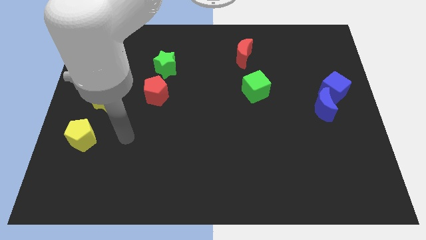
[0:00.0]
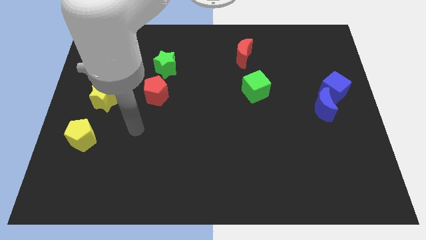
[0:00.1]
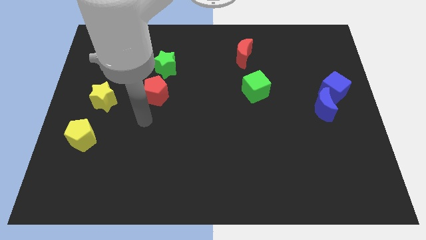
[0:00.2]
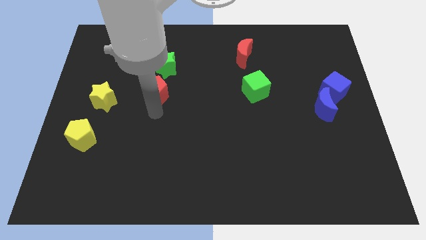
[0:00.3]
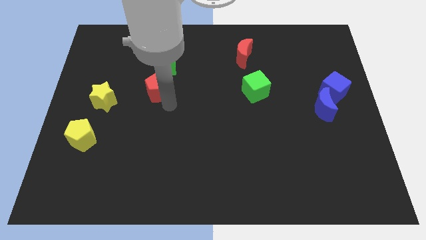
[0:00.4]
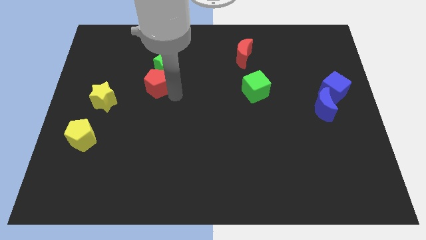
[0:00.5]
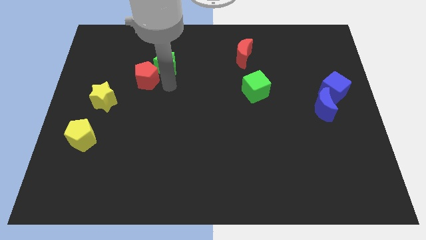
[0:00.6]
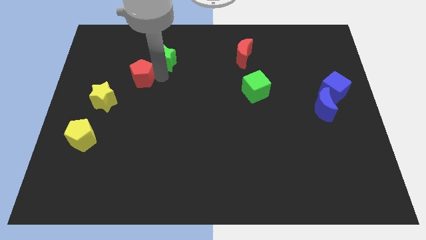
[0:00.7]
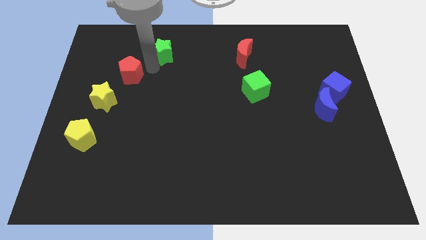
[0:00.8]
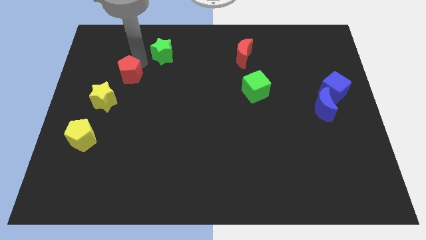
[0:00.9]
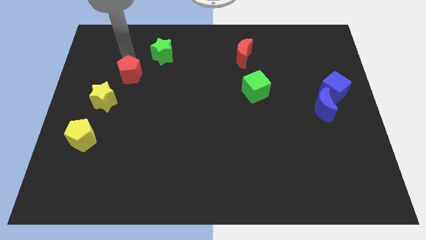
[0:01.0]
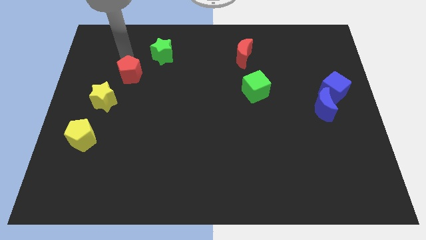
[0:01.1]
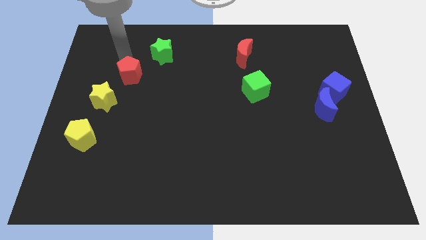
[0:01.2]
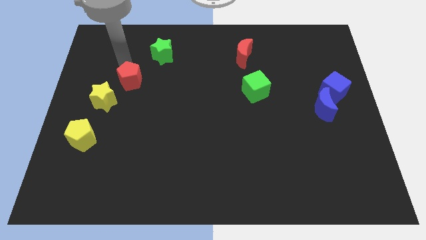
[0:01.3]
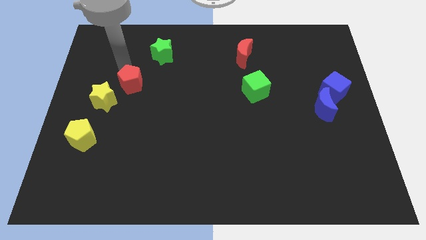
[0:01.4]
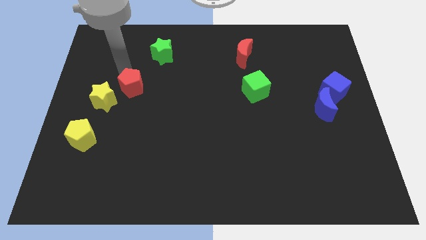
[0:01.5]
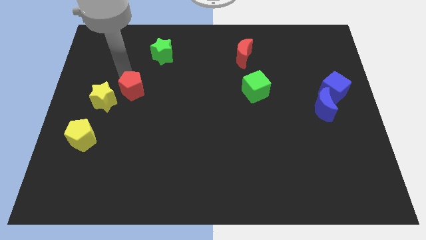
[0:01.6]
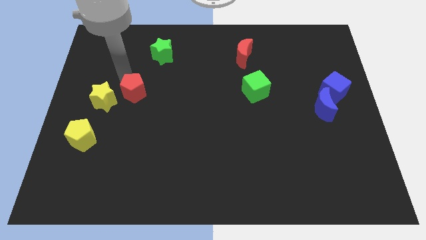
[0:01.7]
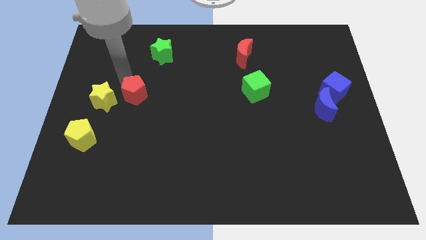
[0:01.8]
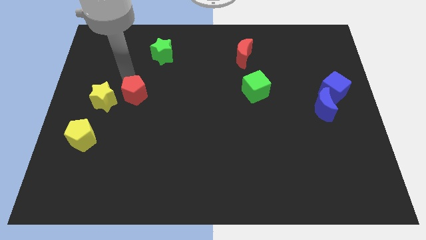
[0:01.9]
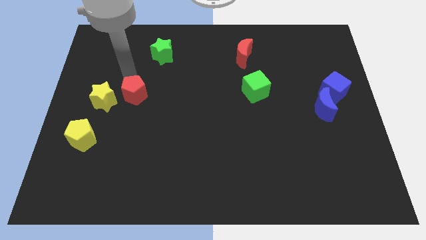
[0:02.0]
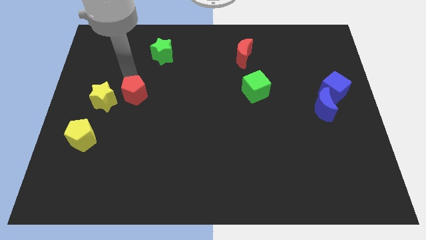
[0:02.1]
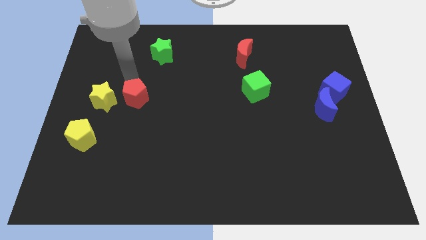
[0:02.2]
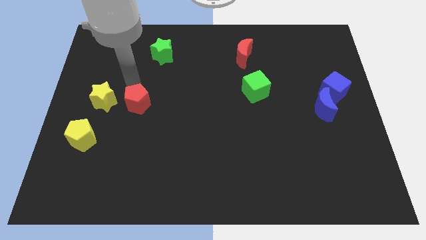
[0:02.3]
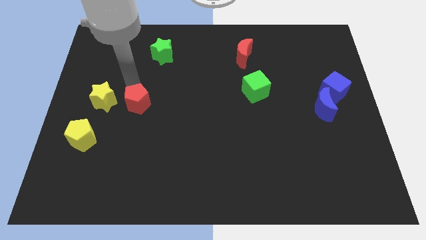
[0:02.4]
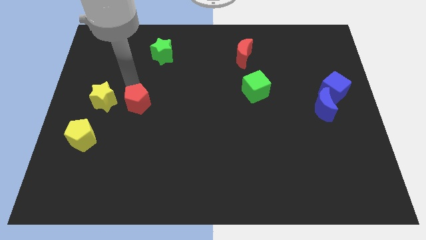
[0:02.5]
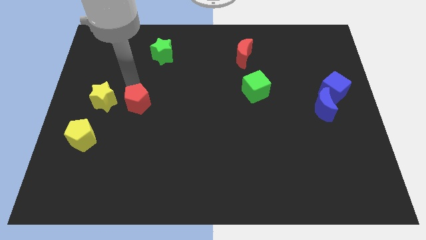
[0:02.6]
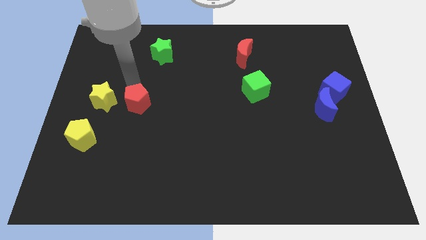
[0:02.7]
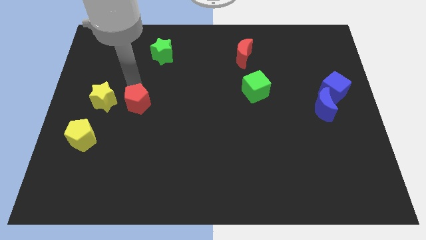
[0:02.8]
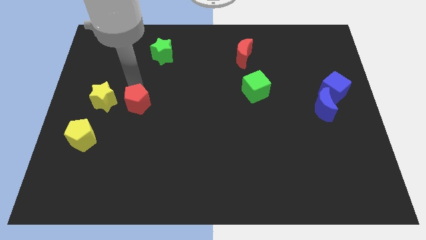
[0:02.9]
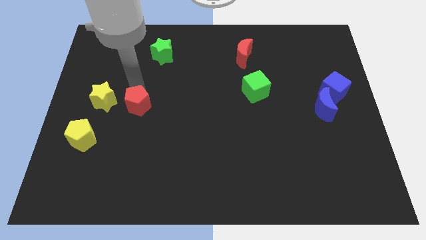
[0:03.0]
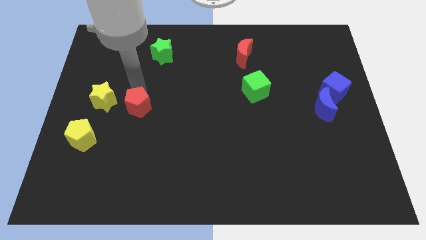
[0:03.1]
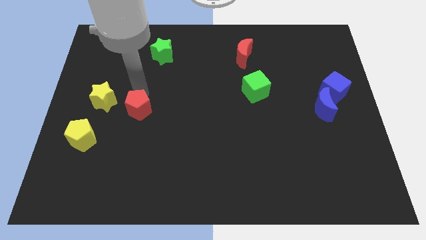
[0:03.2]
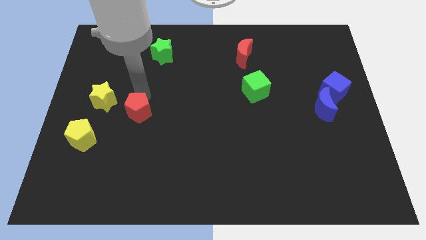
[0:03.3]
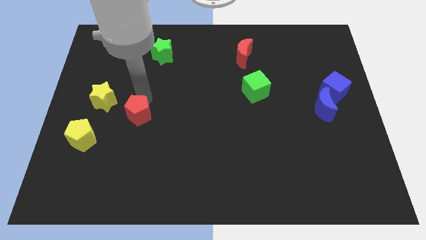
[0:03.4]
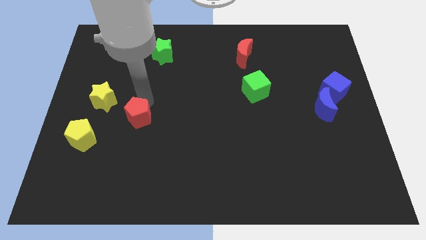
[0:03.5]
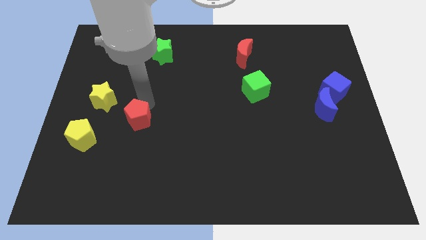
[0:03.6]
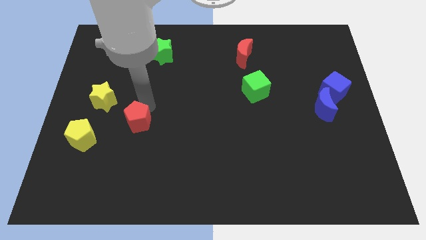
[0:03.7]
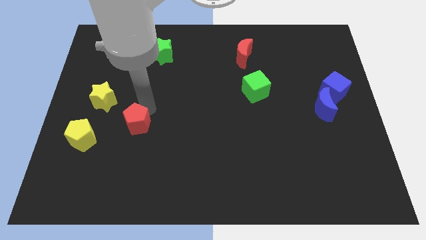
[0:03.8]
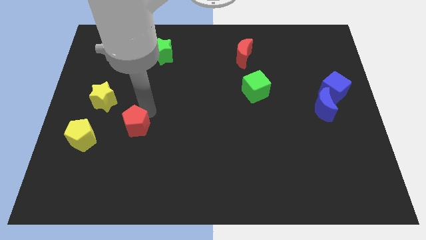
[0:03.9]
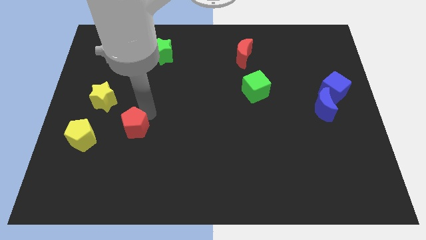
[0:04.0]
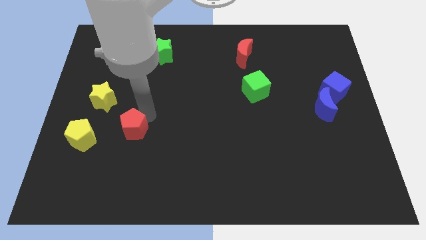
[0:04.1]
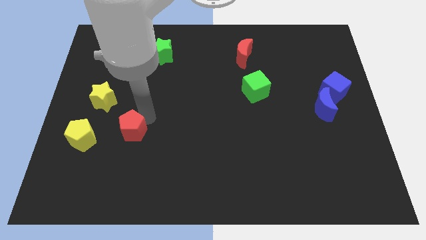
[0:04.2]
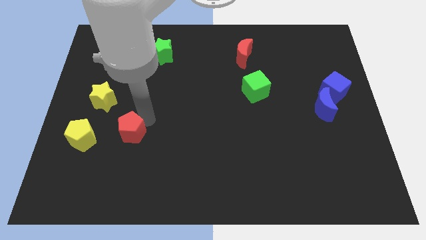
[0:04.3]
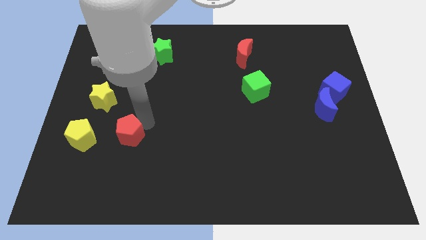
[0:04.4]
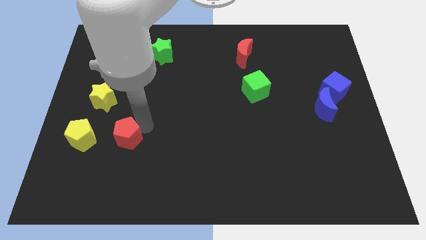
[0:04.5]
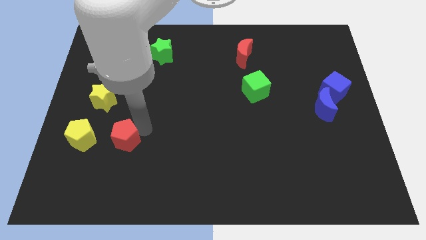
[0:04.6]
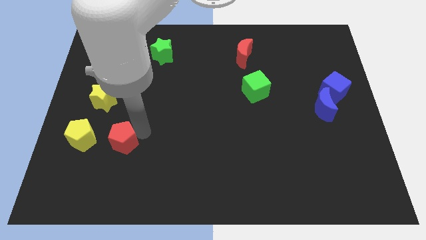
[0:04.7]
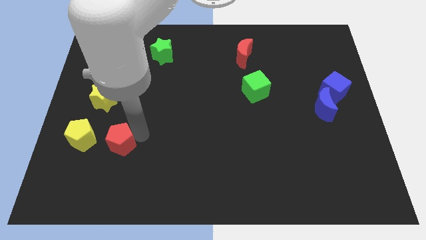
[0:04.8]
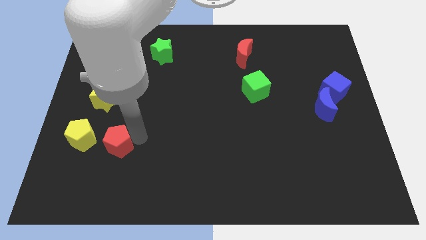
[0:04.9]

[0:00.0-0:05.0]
slide the red pentagon to the bottom right of the yellow pentagon

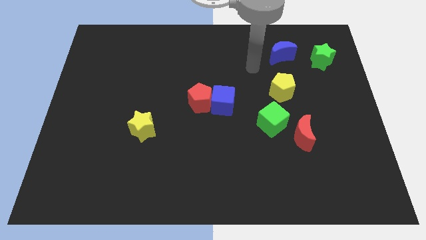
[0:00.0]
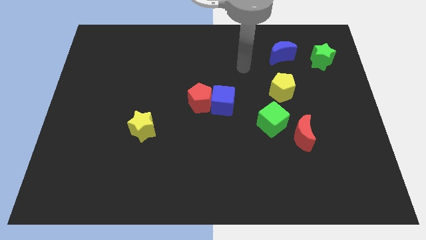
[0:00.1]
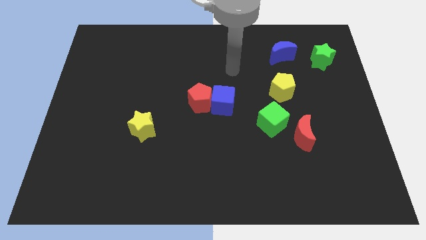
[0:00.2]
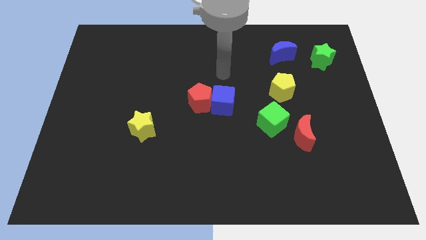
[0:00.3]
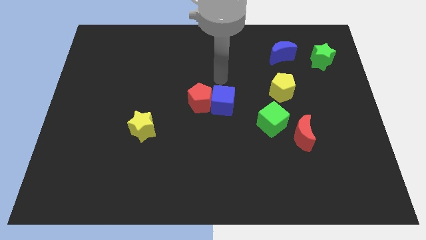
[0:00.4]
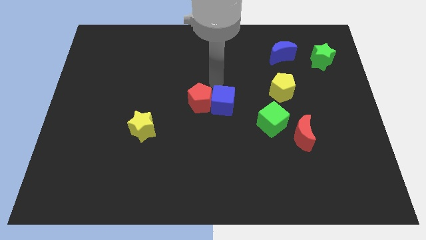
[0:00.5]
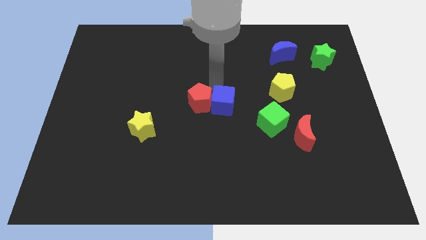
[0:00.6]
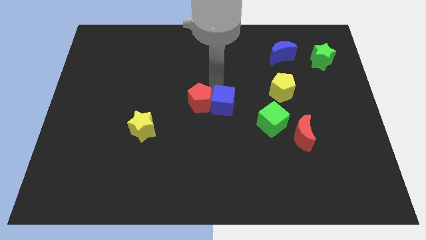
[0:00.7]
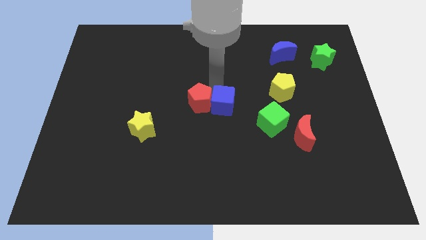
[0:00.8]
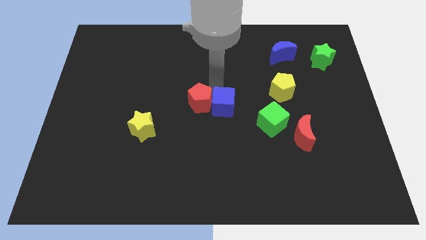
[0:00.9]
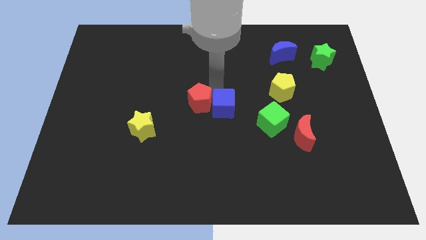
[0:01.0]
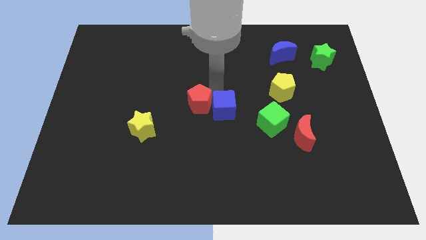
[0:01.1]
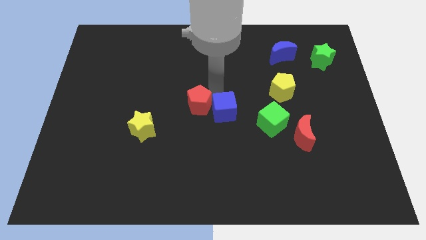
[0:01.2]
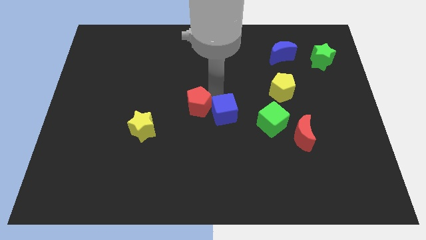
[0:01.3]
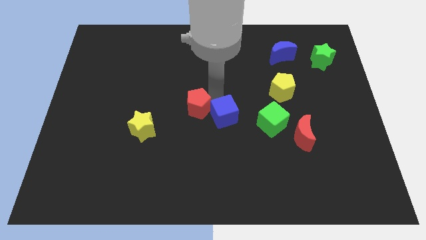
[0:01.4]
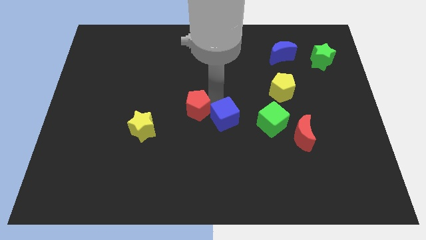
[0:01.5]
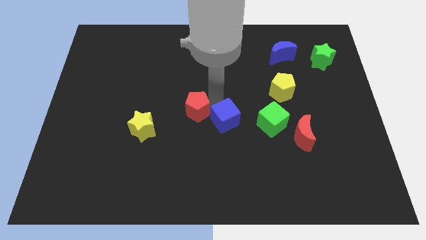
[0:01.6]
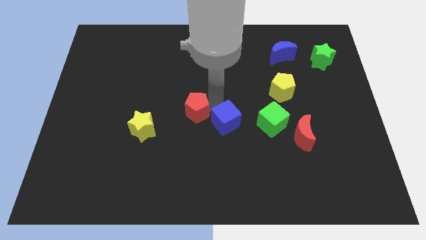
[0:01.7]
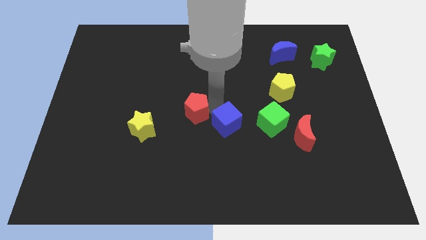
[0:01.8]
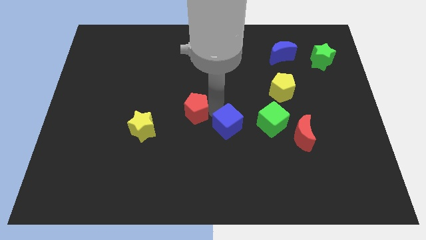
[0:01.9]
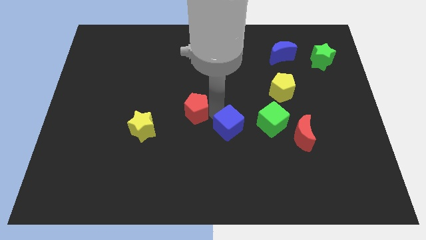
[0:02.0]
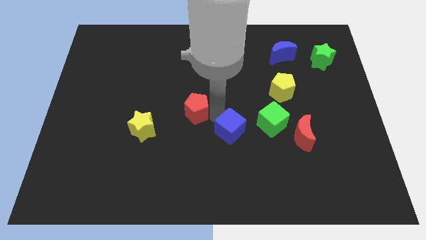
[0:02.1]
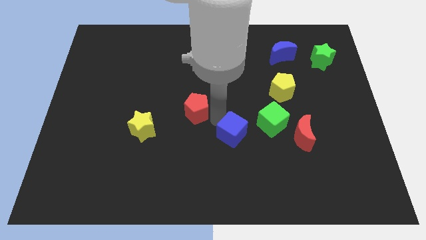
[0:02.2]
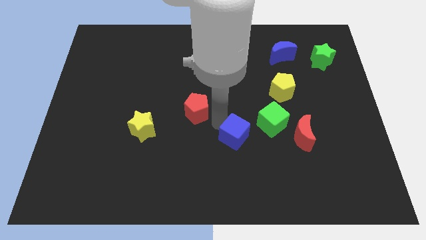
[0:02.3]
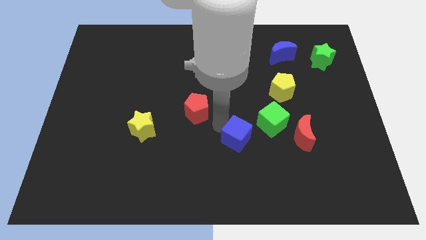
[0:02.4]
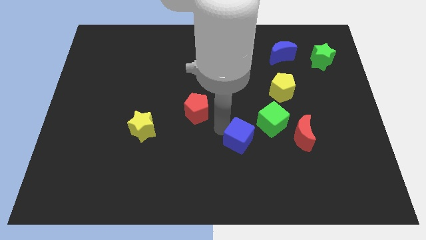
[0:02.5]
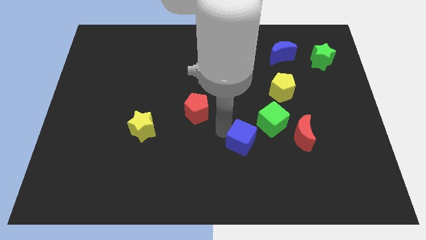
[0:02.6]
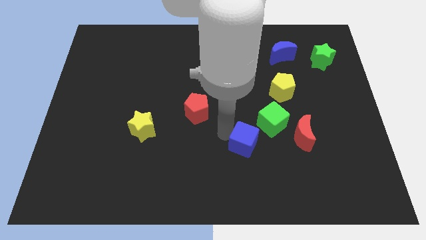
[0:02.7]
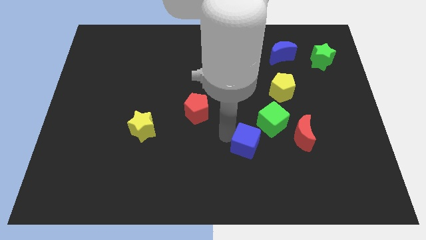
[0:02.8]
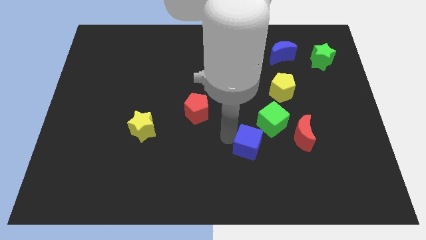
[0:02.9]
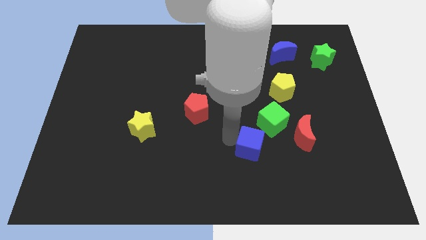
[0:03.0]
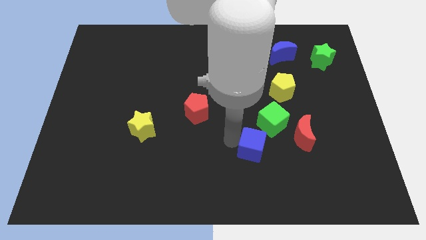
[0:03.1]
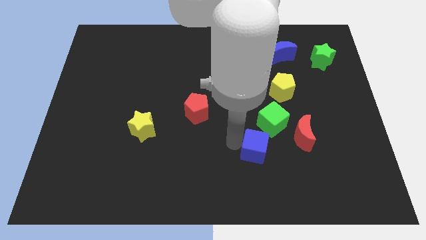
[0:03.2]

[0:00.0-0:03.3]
slide the blue cube to the bottom side of the green cube
